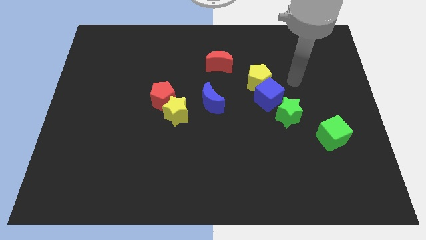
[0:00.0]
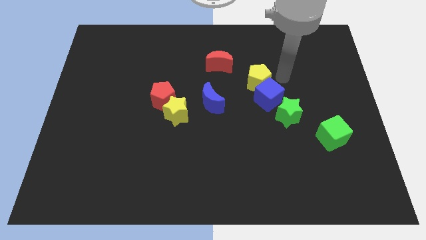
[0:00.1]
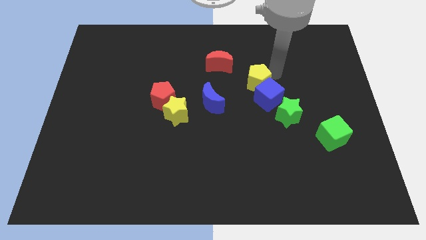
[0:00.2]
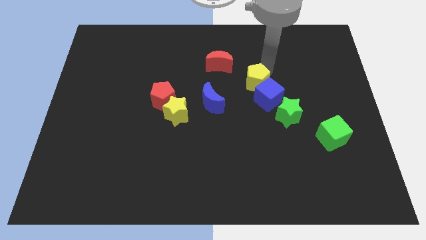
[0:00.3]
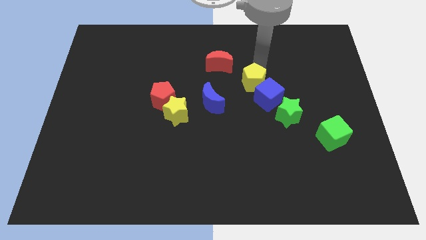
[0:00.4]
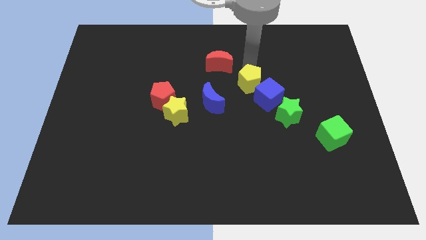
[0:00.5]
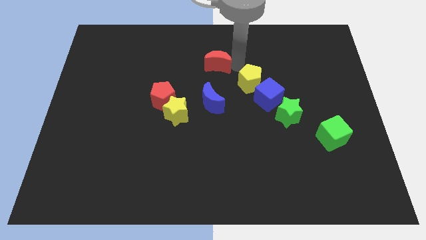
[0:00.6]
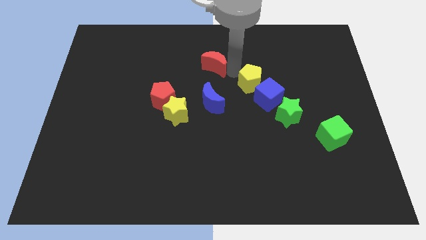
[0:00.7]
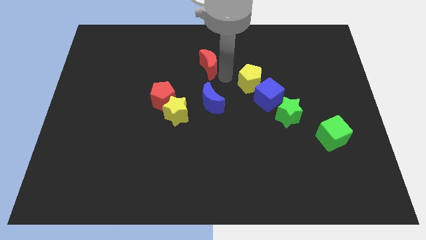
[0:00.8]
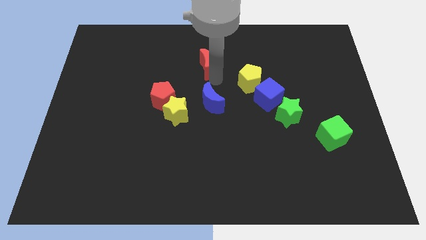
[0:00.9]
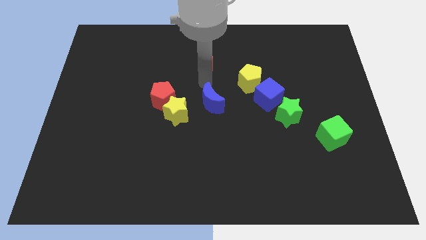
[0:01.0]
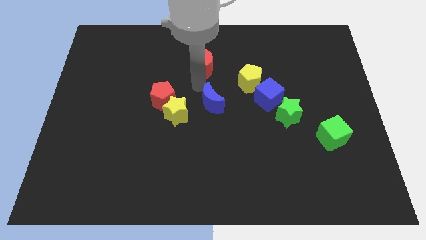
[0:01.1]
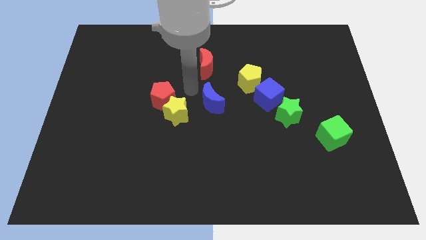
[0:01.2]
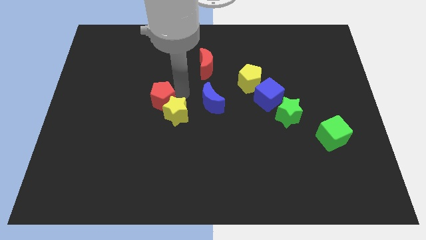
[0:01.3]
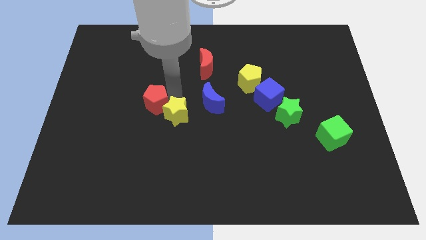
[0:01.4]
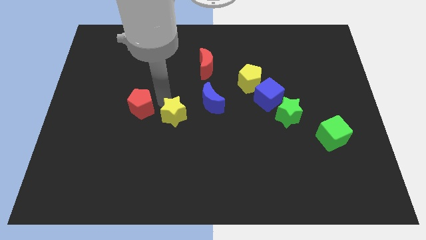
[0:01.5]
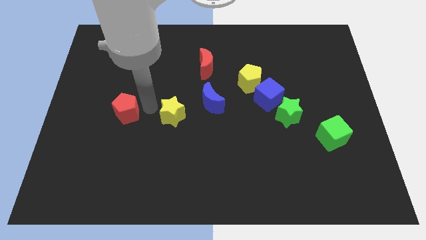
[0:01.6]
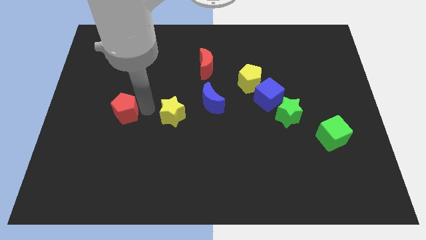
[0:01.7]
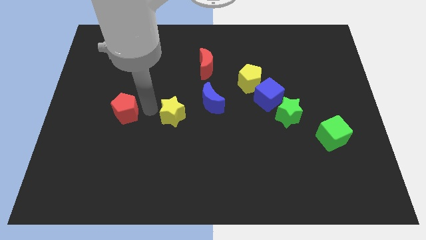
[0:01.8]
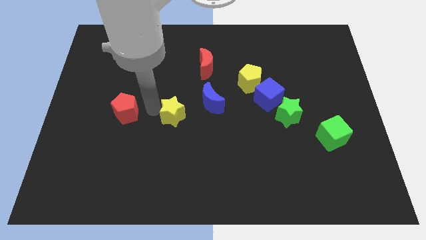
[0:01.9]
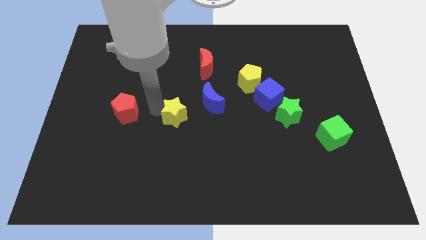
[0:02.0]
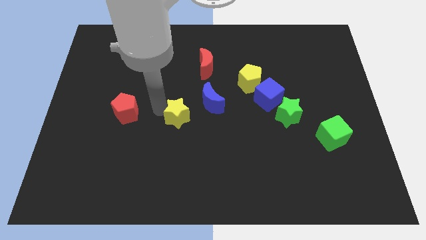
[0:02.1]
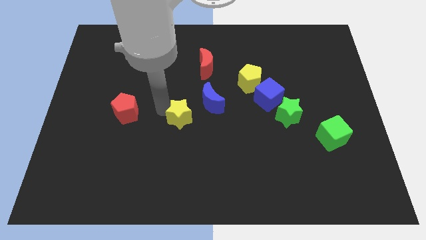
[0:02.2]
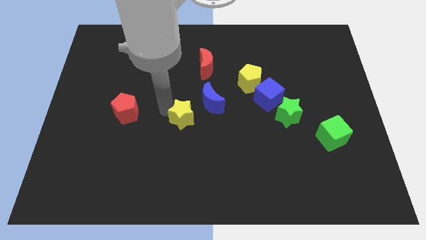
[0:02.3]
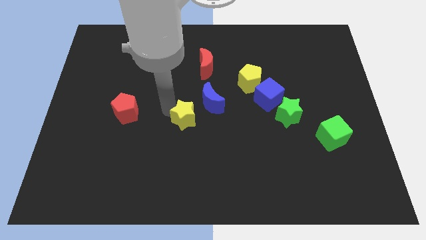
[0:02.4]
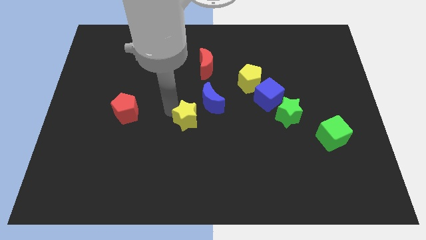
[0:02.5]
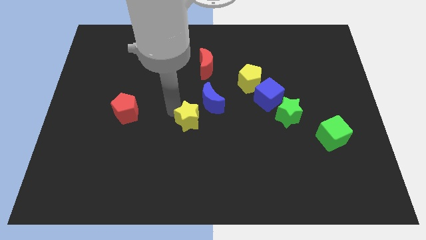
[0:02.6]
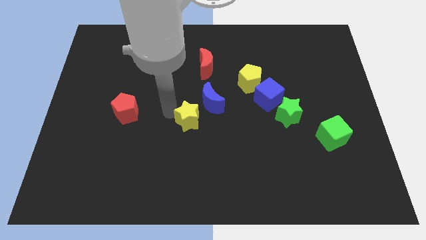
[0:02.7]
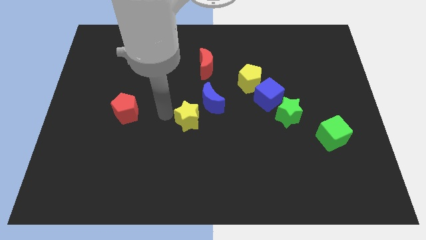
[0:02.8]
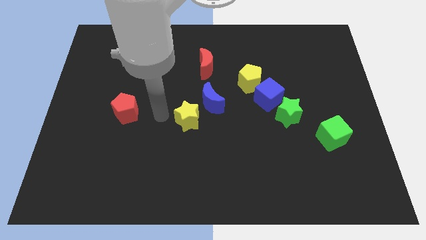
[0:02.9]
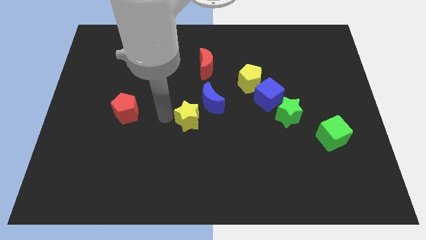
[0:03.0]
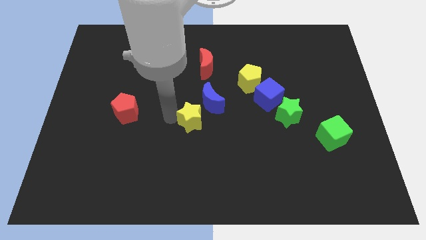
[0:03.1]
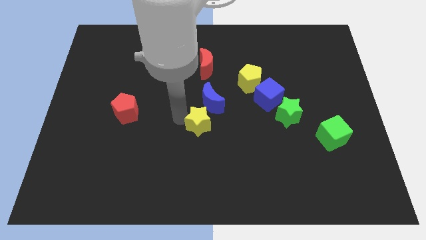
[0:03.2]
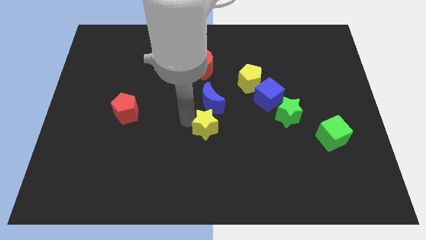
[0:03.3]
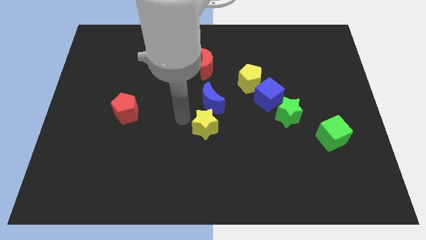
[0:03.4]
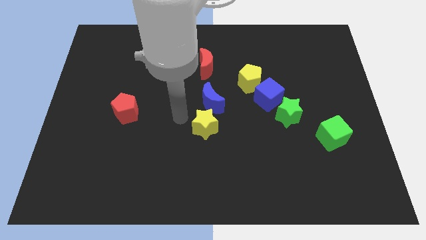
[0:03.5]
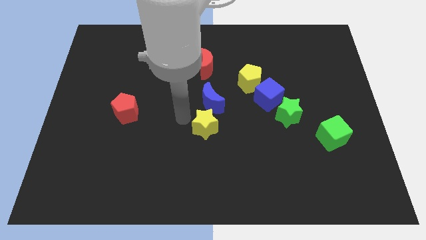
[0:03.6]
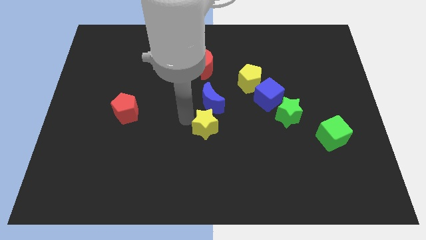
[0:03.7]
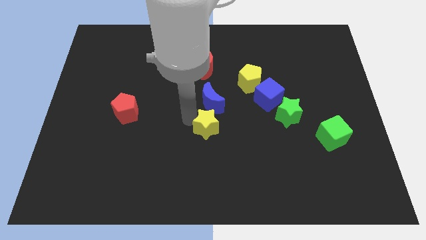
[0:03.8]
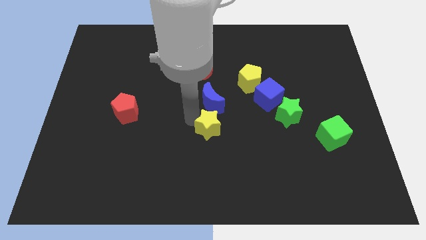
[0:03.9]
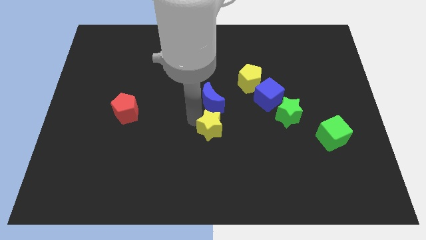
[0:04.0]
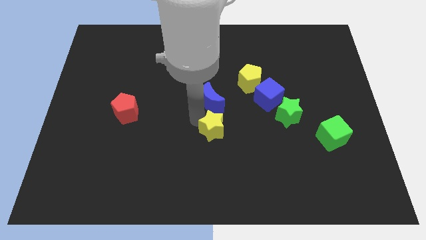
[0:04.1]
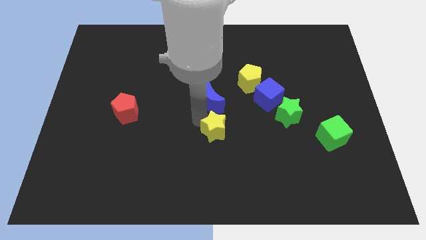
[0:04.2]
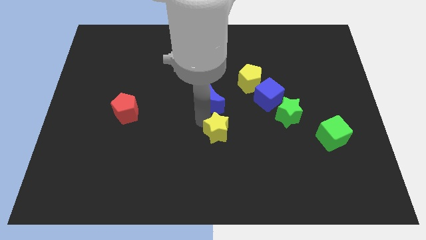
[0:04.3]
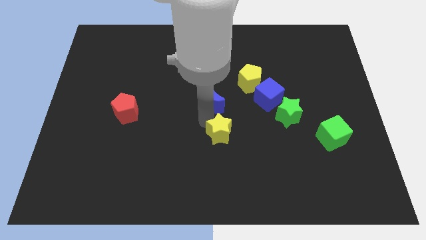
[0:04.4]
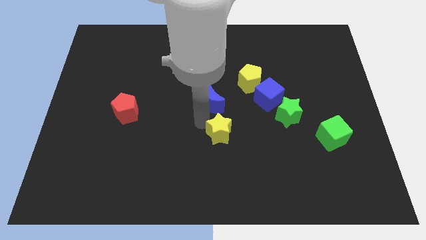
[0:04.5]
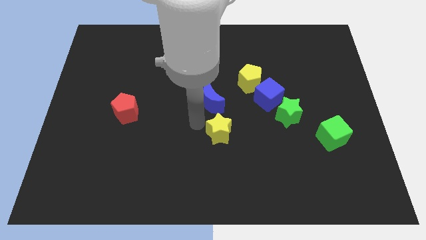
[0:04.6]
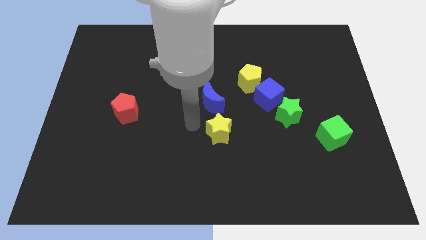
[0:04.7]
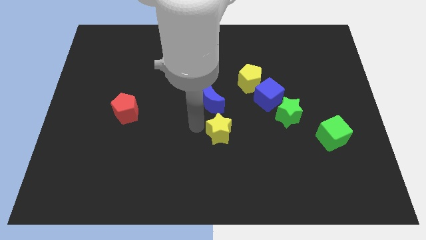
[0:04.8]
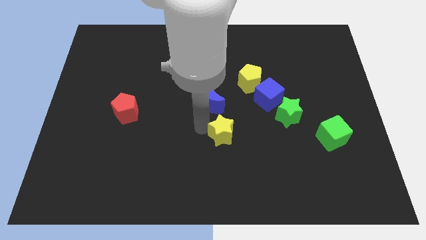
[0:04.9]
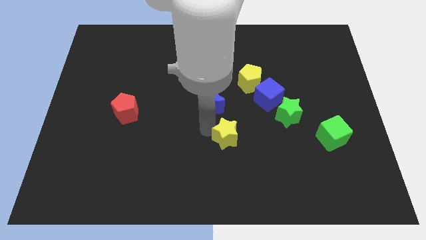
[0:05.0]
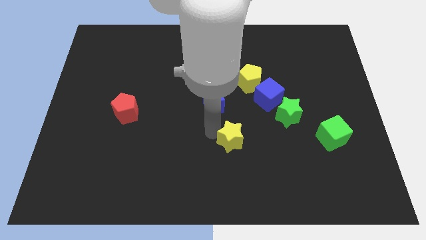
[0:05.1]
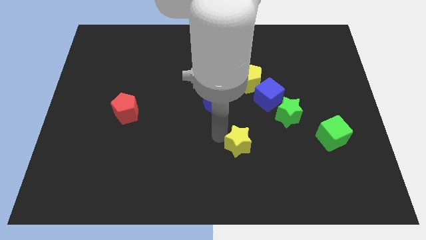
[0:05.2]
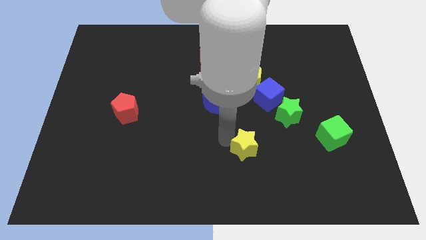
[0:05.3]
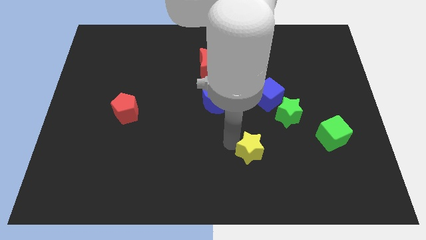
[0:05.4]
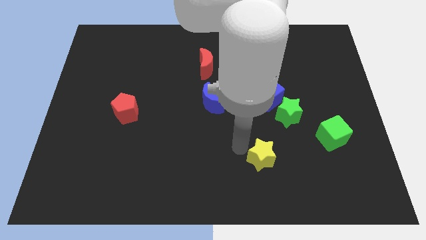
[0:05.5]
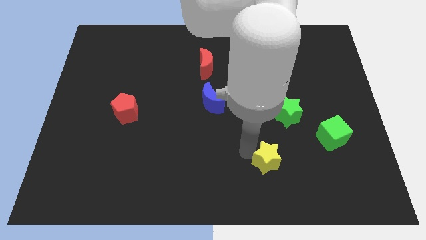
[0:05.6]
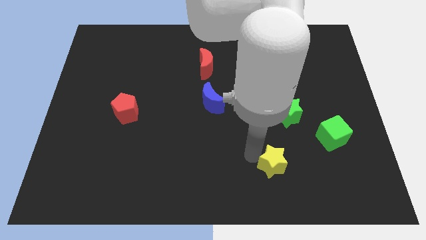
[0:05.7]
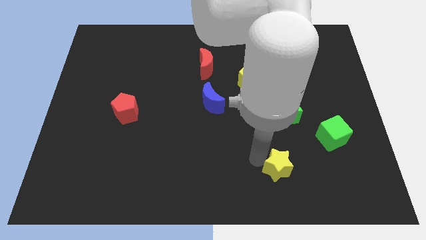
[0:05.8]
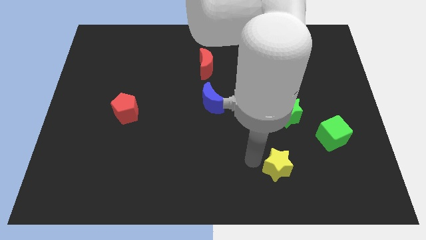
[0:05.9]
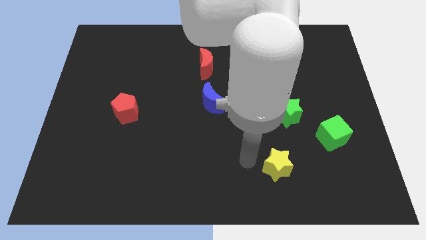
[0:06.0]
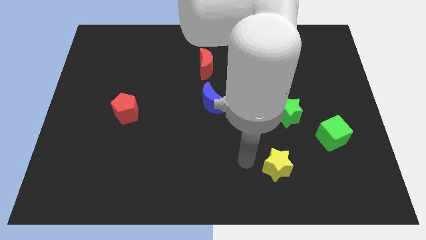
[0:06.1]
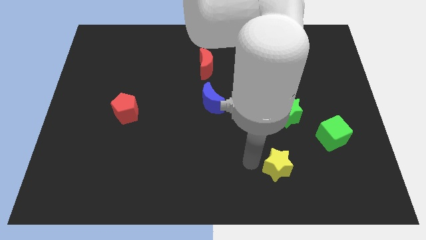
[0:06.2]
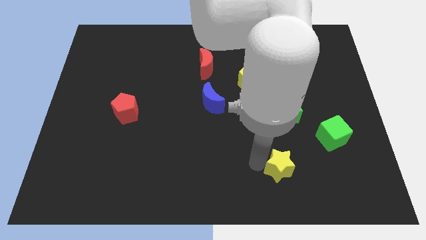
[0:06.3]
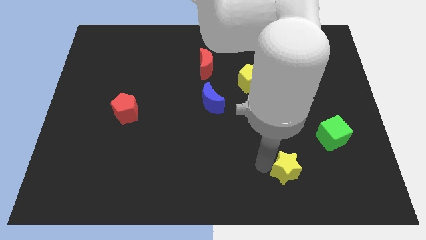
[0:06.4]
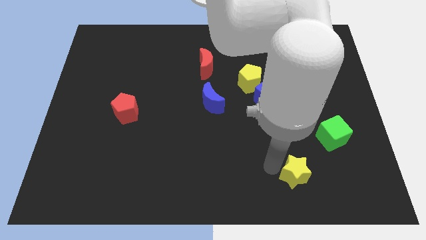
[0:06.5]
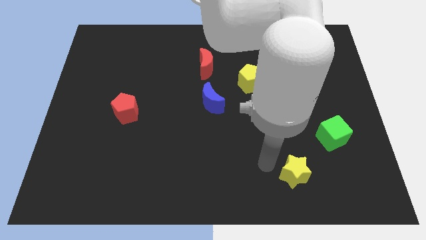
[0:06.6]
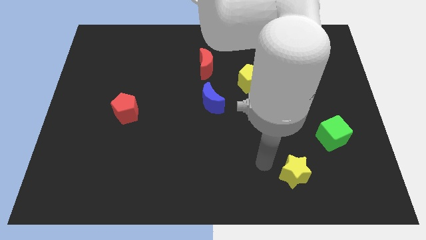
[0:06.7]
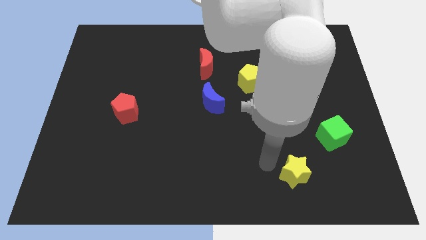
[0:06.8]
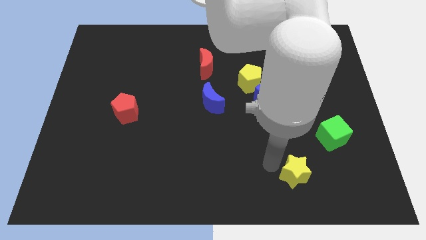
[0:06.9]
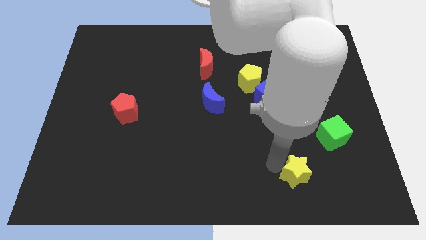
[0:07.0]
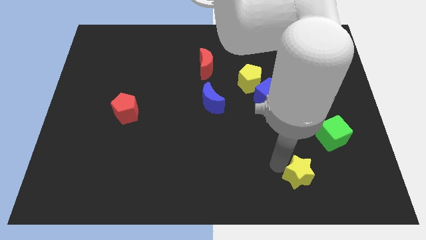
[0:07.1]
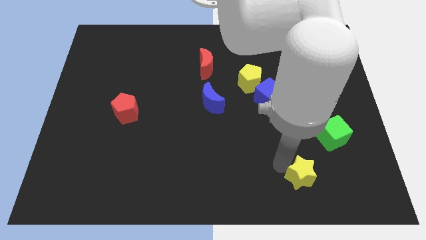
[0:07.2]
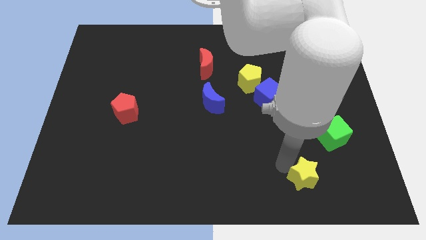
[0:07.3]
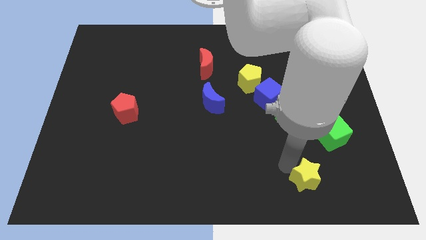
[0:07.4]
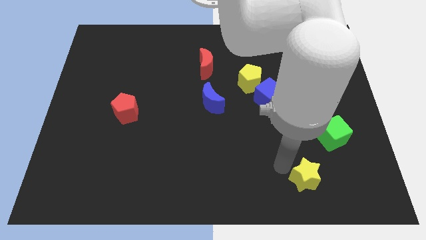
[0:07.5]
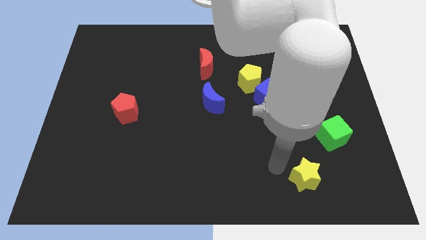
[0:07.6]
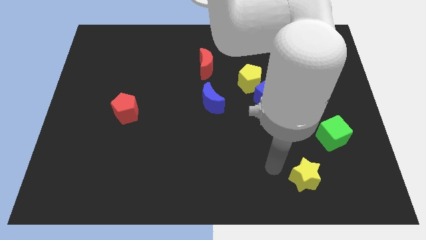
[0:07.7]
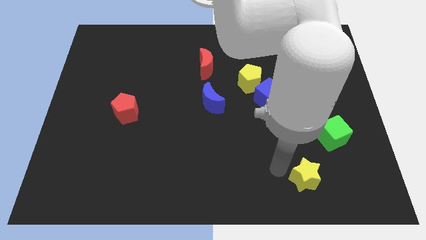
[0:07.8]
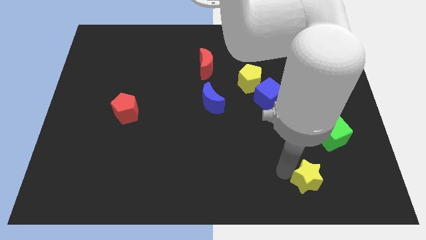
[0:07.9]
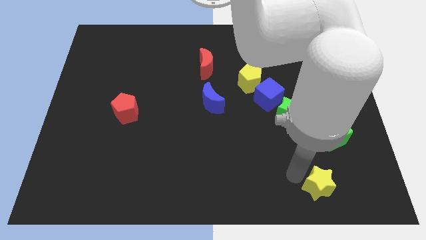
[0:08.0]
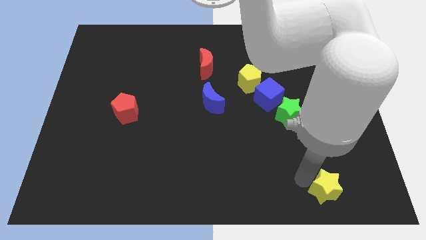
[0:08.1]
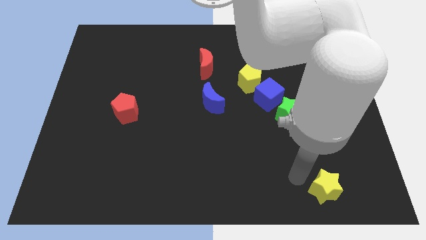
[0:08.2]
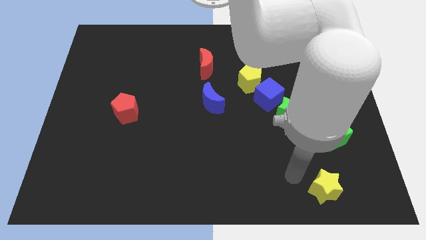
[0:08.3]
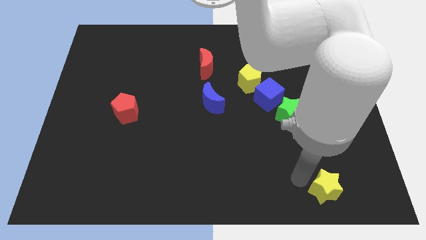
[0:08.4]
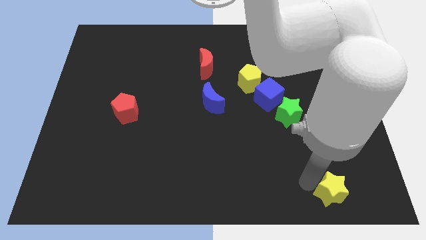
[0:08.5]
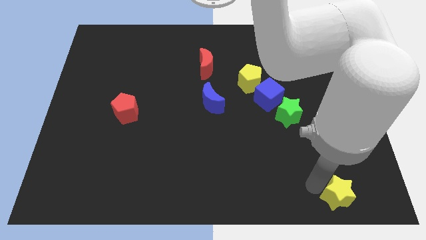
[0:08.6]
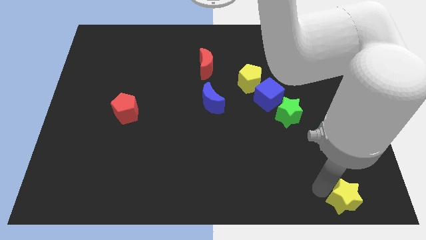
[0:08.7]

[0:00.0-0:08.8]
move the yellow star to the bottom right of the board
